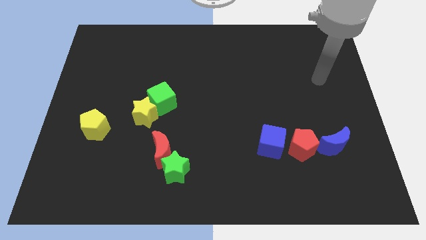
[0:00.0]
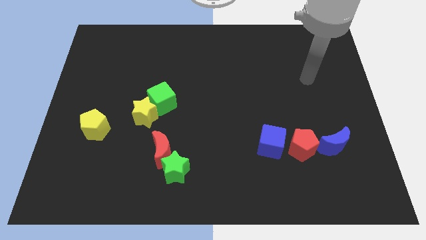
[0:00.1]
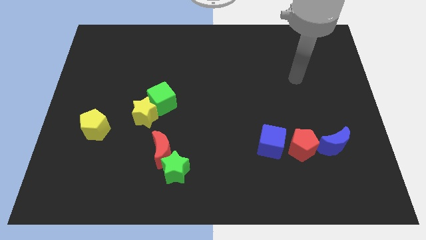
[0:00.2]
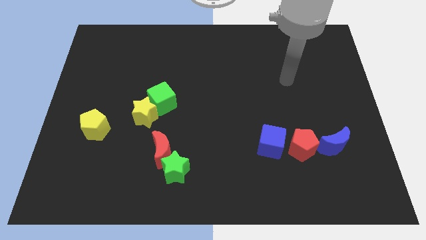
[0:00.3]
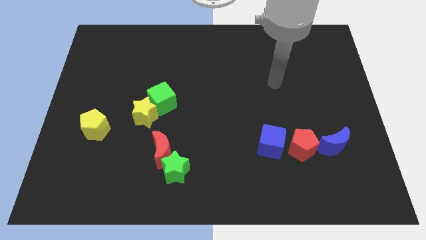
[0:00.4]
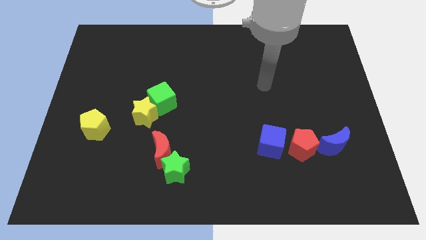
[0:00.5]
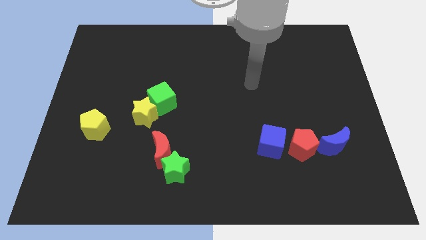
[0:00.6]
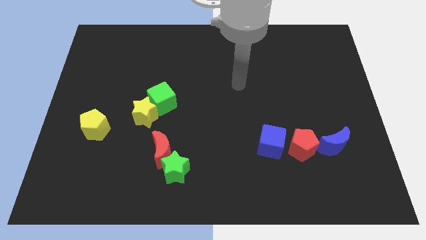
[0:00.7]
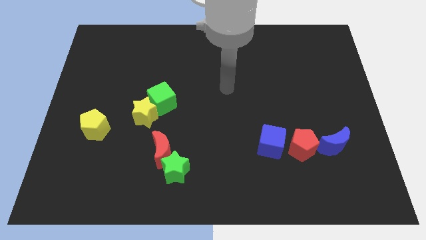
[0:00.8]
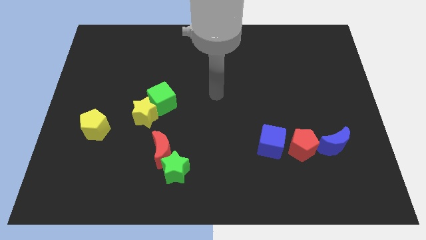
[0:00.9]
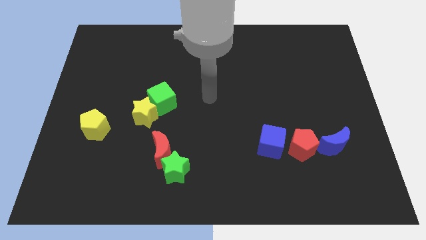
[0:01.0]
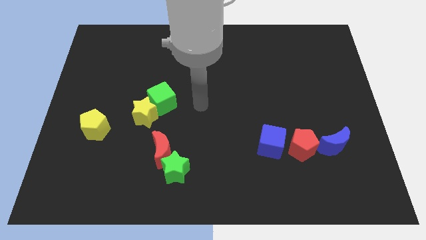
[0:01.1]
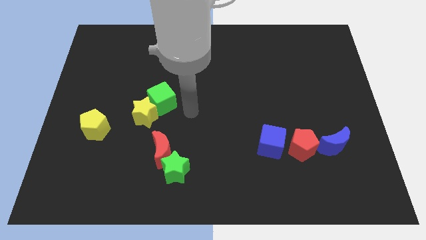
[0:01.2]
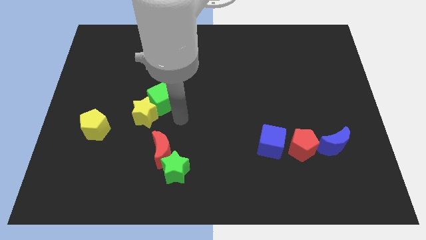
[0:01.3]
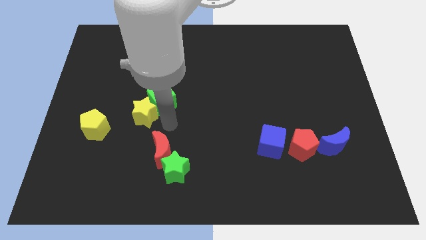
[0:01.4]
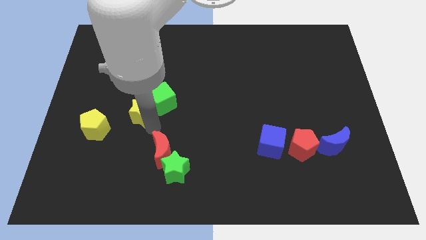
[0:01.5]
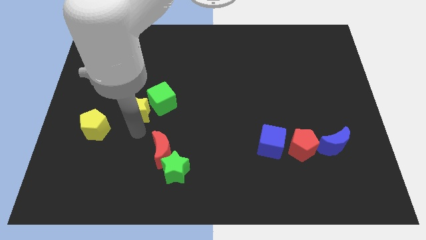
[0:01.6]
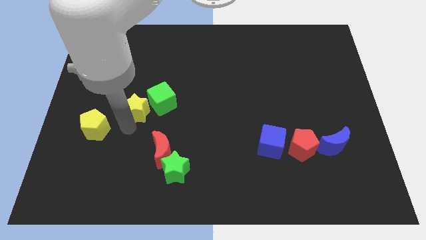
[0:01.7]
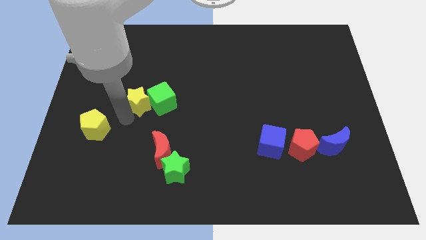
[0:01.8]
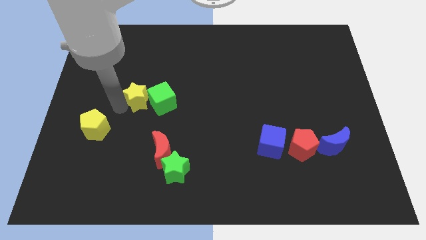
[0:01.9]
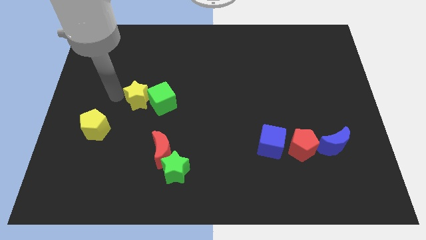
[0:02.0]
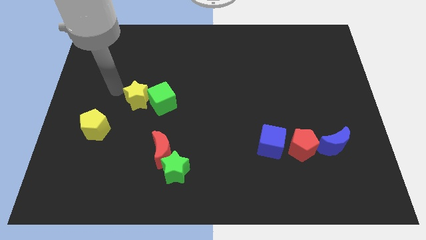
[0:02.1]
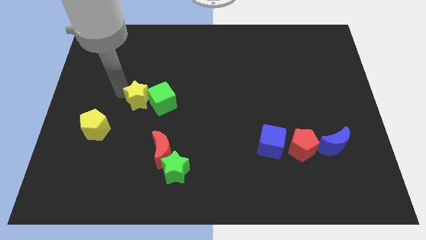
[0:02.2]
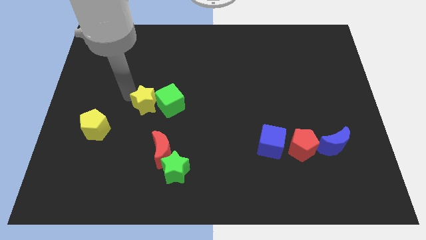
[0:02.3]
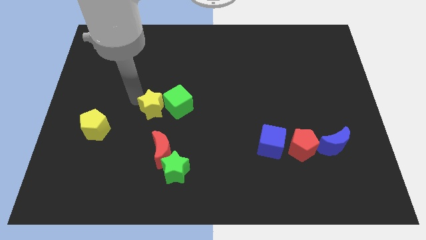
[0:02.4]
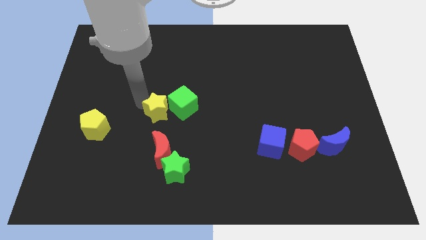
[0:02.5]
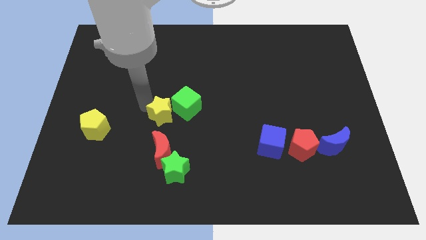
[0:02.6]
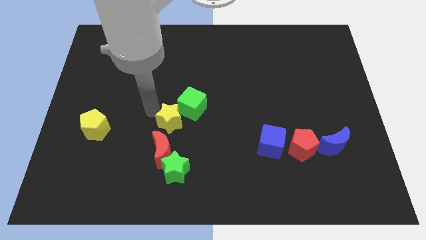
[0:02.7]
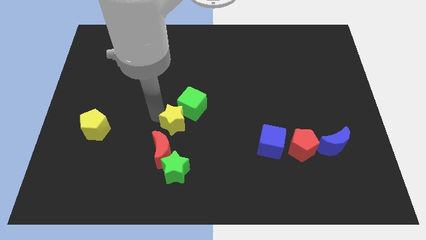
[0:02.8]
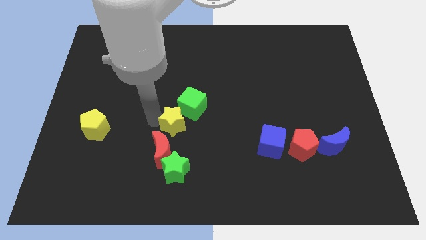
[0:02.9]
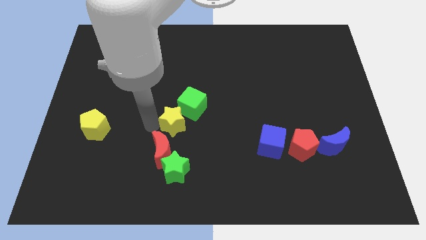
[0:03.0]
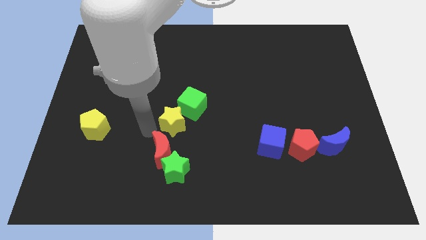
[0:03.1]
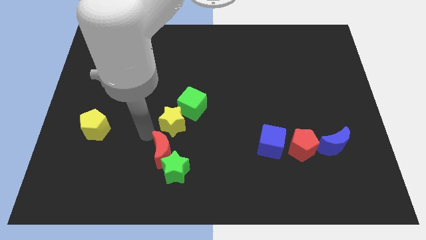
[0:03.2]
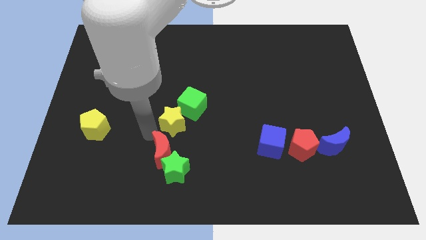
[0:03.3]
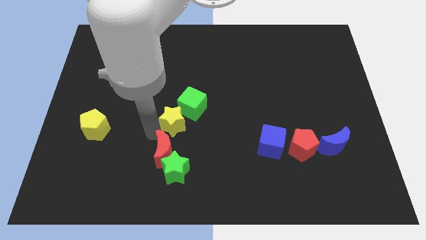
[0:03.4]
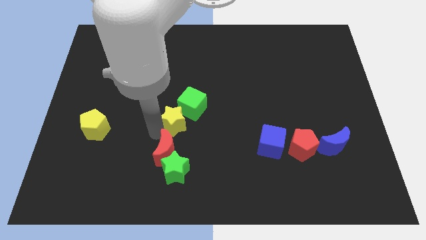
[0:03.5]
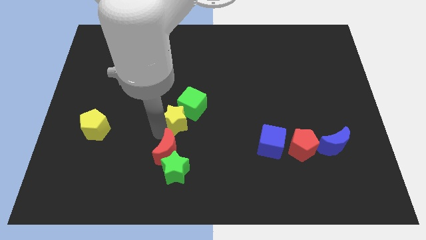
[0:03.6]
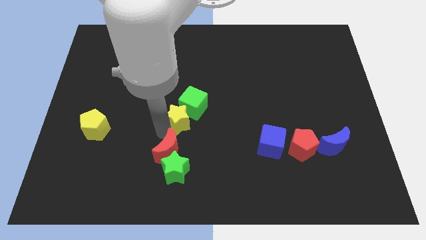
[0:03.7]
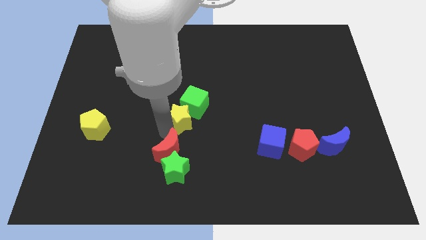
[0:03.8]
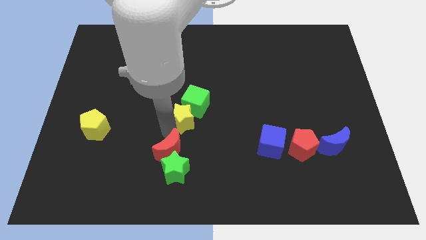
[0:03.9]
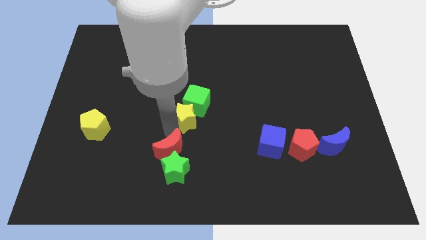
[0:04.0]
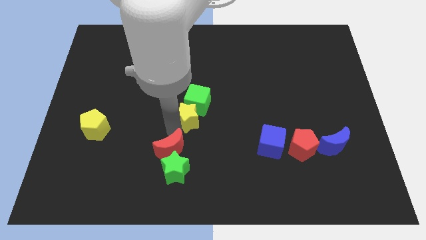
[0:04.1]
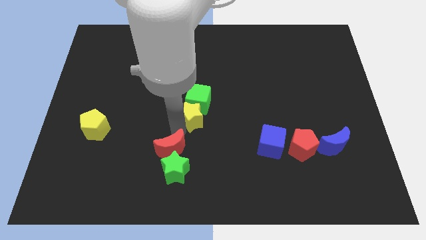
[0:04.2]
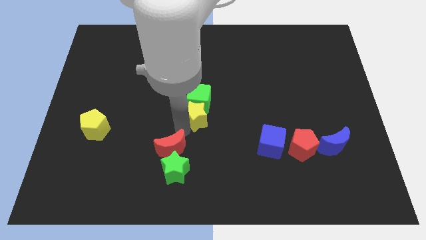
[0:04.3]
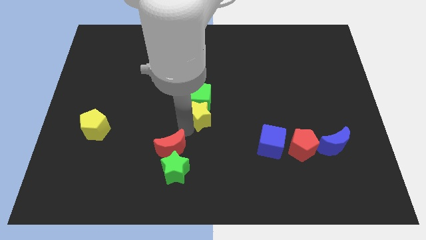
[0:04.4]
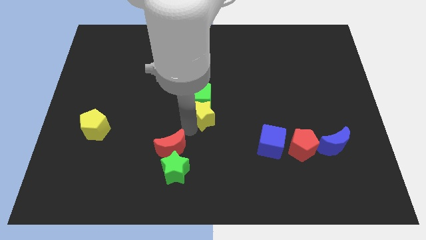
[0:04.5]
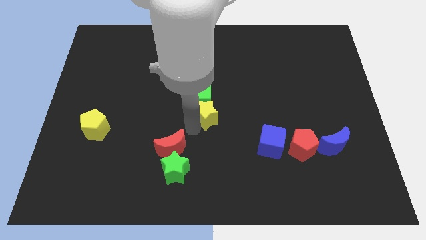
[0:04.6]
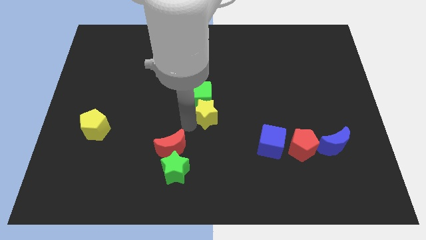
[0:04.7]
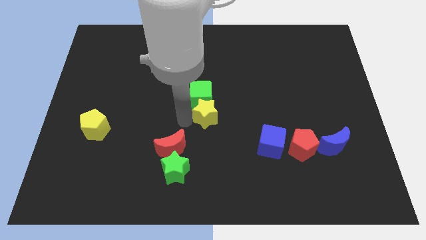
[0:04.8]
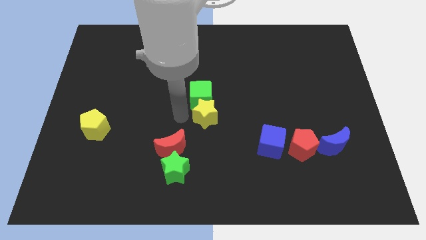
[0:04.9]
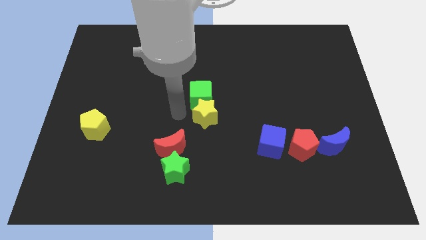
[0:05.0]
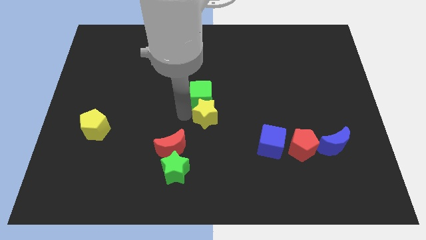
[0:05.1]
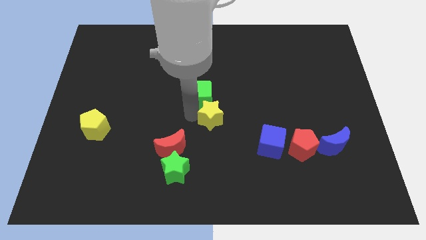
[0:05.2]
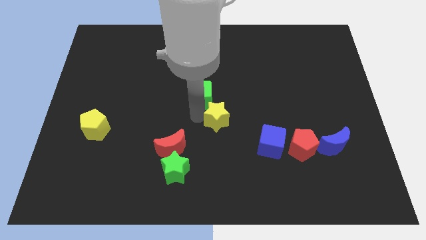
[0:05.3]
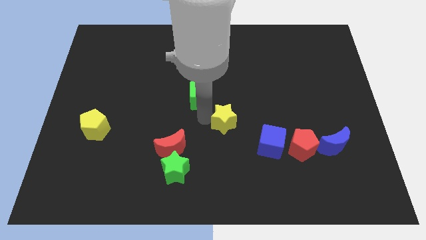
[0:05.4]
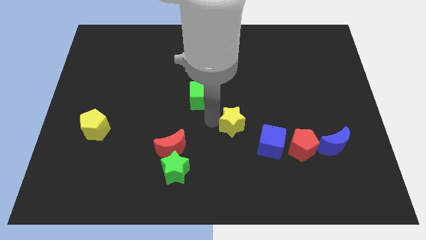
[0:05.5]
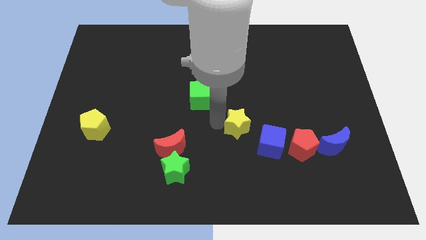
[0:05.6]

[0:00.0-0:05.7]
push the yellow star to the right

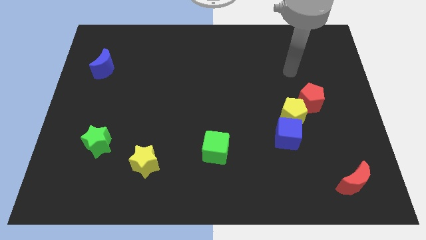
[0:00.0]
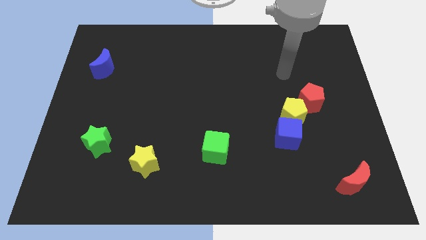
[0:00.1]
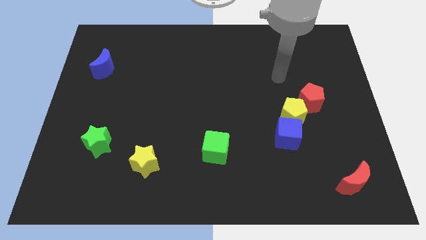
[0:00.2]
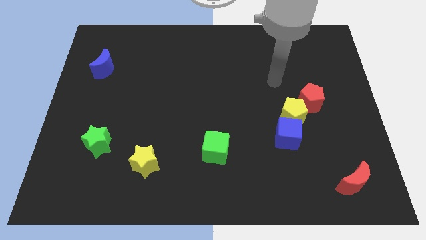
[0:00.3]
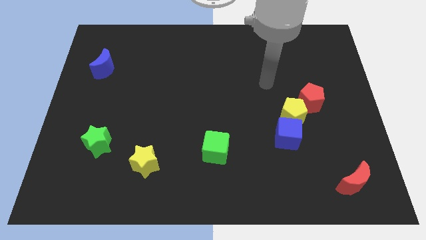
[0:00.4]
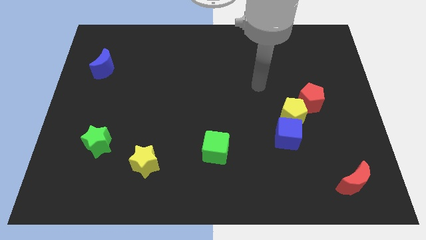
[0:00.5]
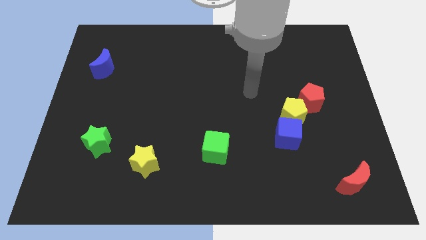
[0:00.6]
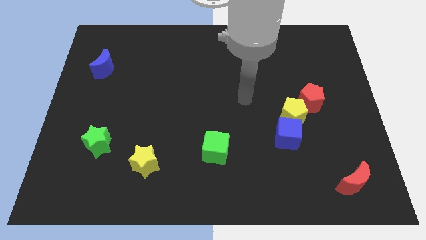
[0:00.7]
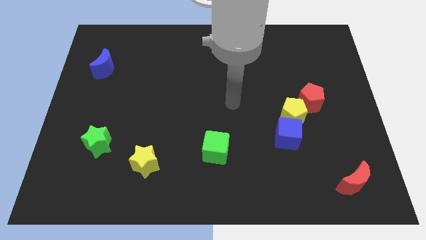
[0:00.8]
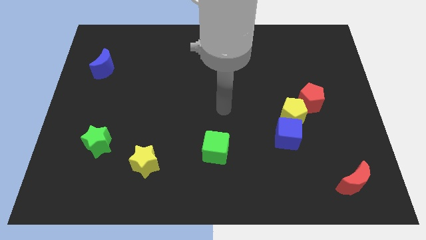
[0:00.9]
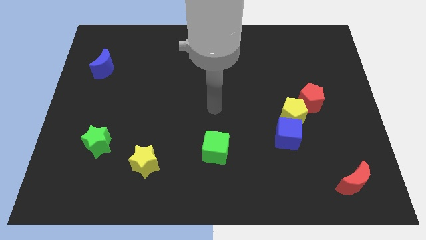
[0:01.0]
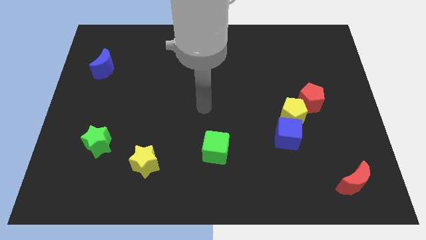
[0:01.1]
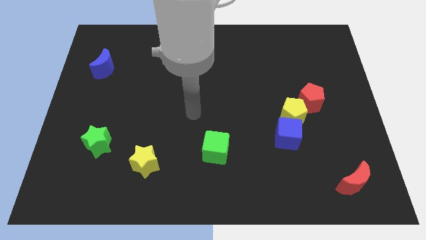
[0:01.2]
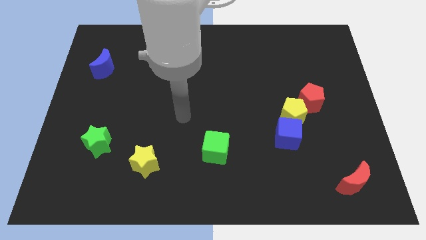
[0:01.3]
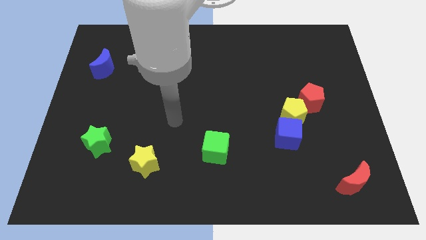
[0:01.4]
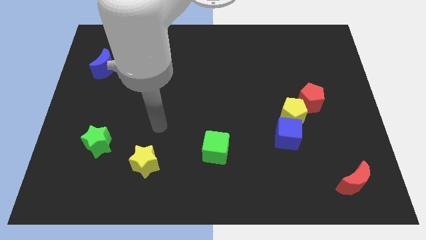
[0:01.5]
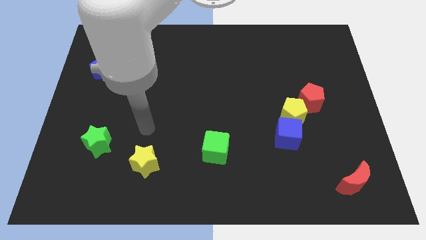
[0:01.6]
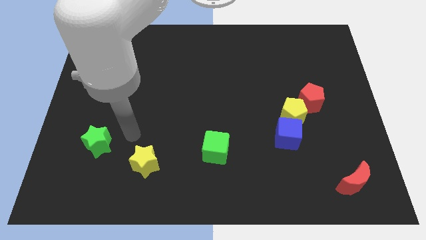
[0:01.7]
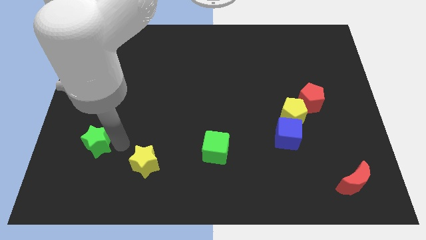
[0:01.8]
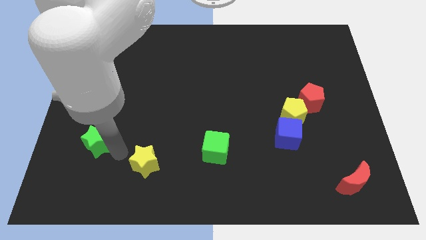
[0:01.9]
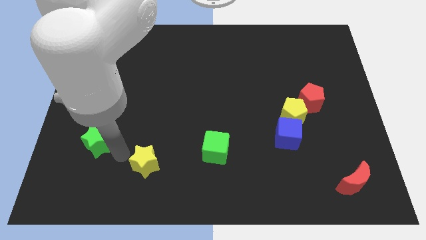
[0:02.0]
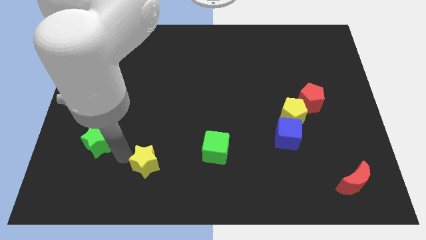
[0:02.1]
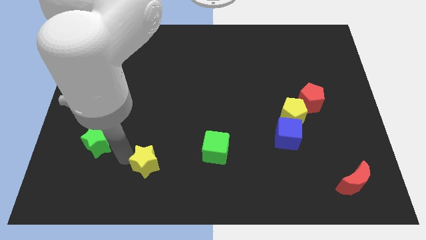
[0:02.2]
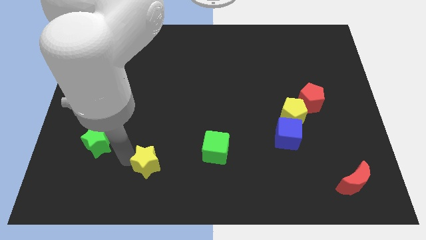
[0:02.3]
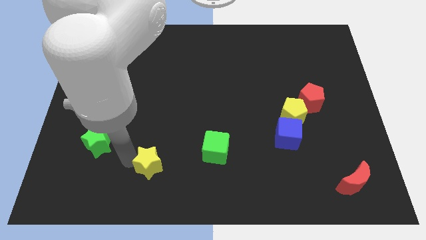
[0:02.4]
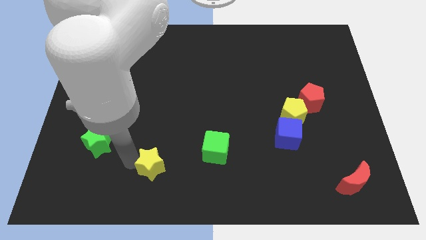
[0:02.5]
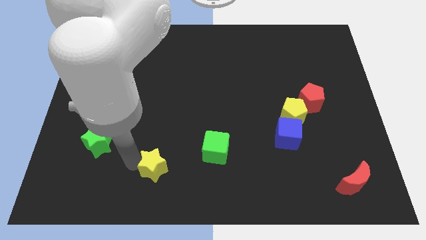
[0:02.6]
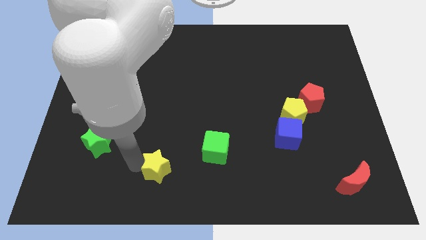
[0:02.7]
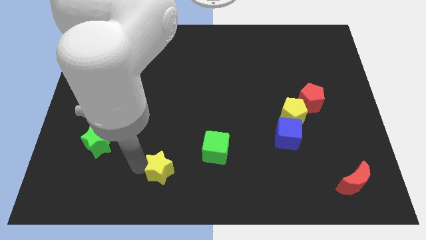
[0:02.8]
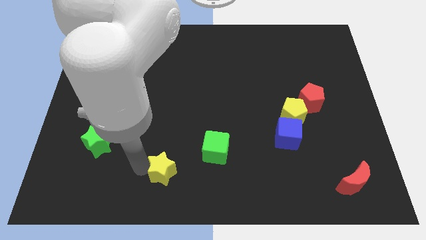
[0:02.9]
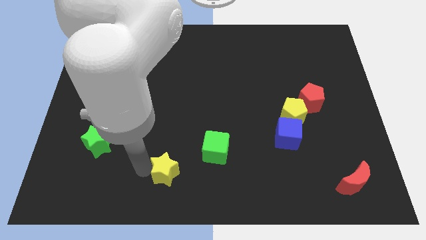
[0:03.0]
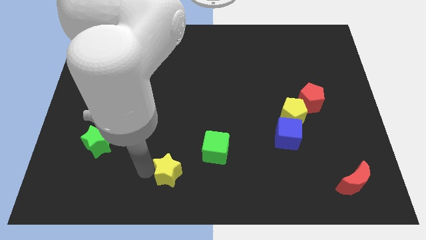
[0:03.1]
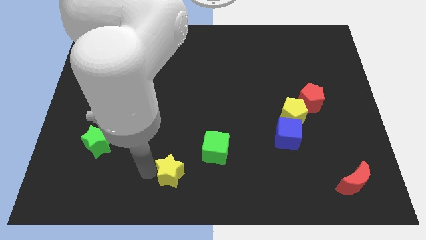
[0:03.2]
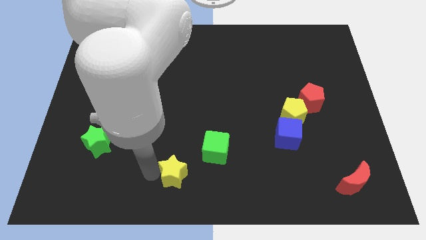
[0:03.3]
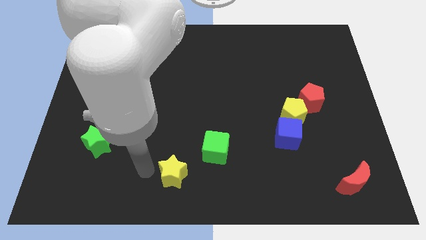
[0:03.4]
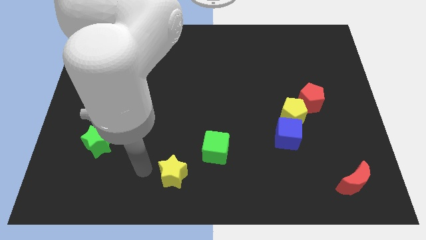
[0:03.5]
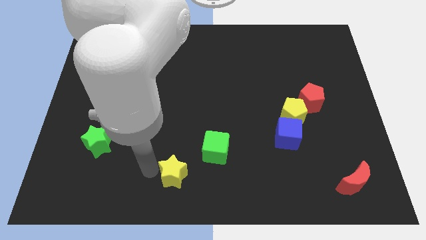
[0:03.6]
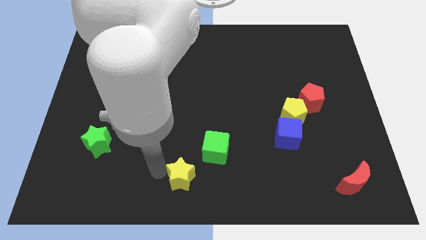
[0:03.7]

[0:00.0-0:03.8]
slightly move the yellow star to the right
